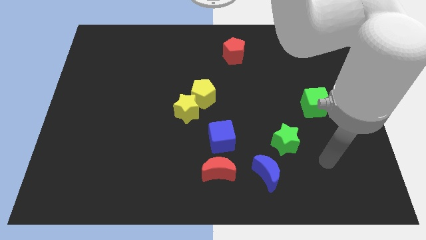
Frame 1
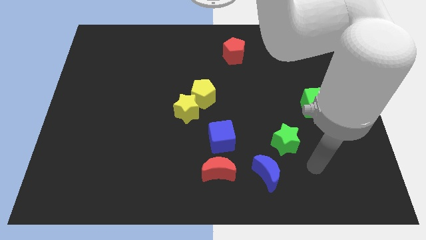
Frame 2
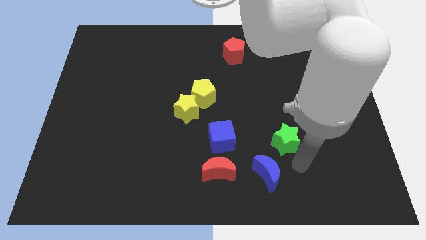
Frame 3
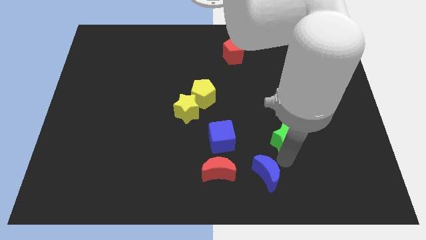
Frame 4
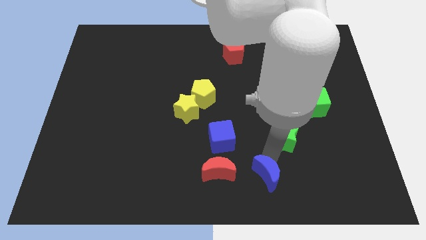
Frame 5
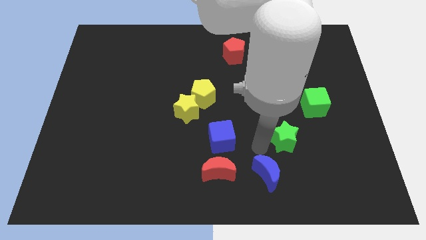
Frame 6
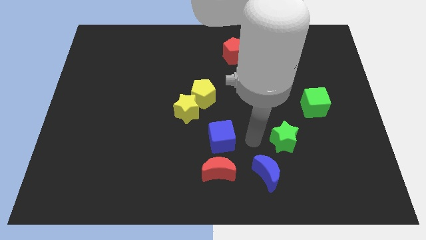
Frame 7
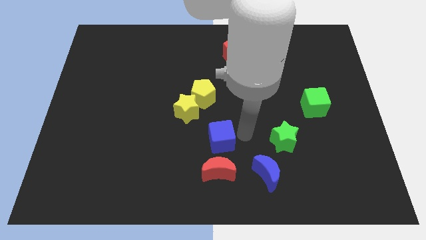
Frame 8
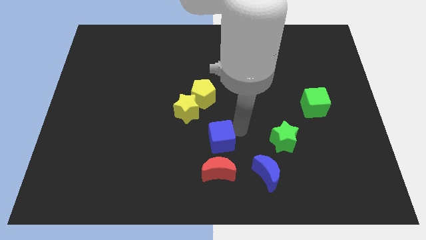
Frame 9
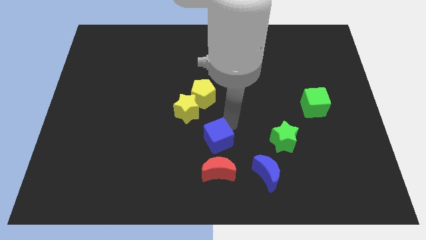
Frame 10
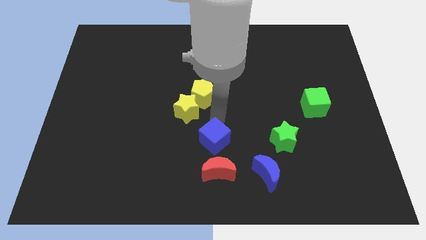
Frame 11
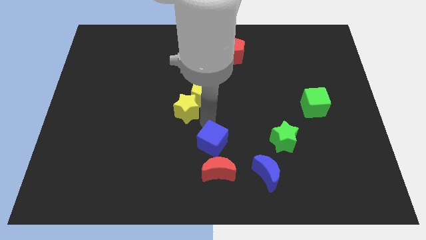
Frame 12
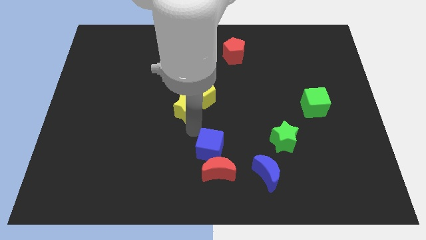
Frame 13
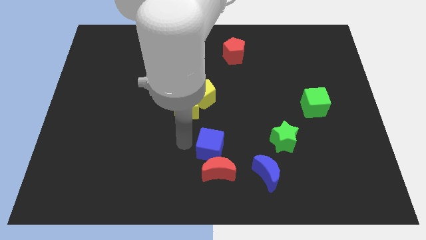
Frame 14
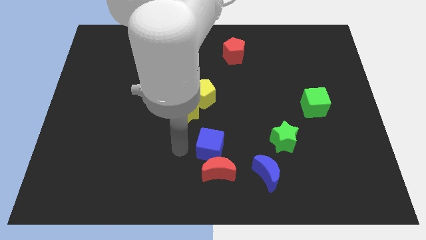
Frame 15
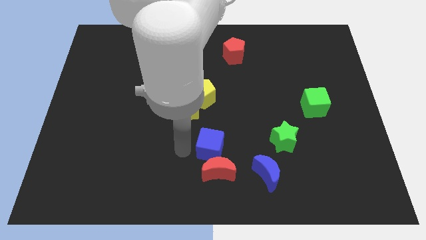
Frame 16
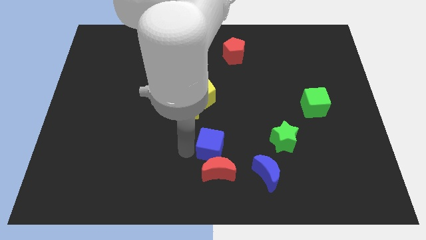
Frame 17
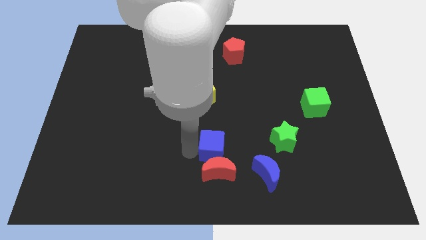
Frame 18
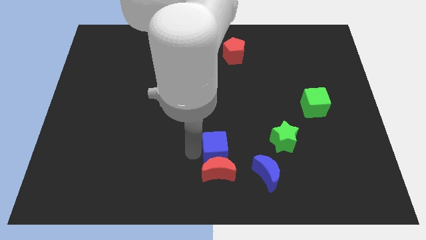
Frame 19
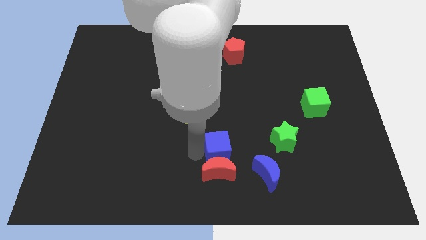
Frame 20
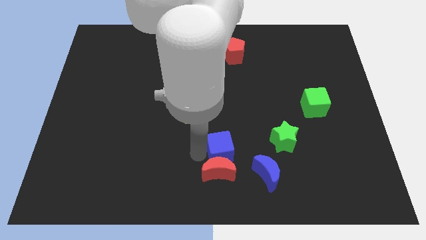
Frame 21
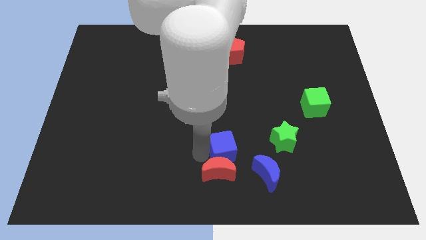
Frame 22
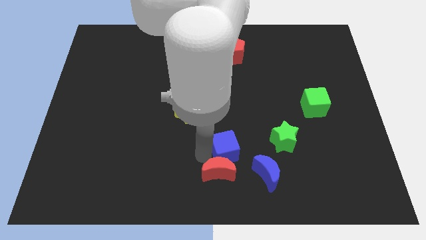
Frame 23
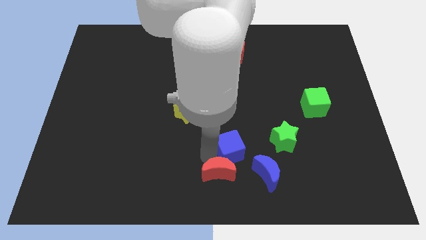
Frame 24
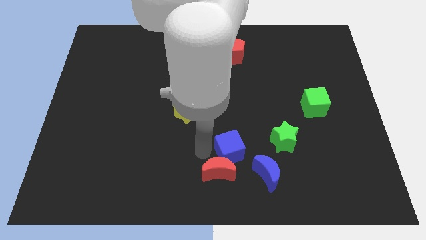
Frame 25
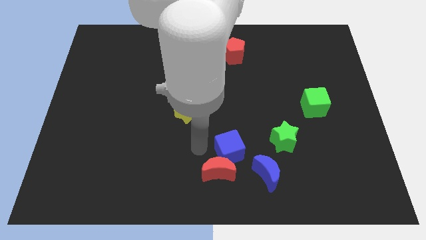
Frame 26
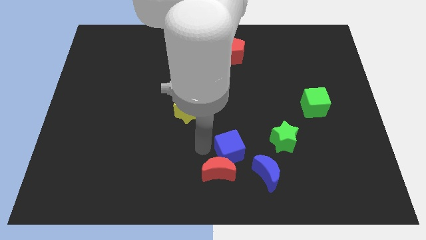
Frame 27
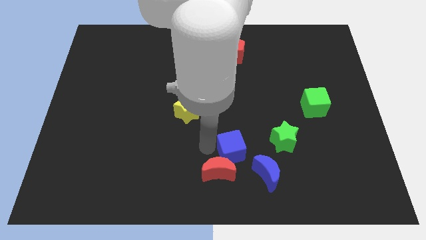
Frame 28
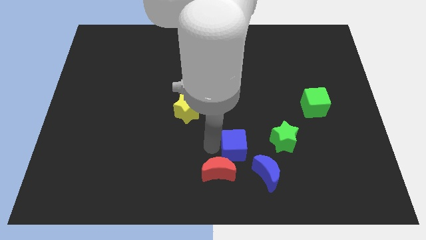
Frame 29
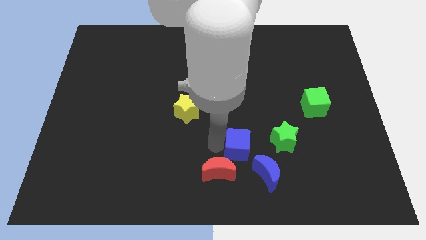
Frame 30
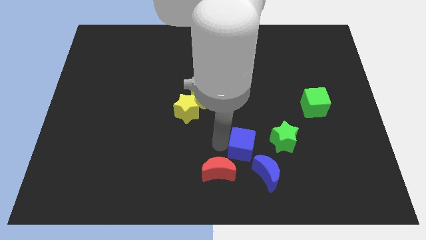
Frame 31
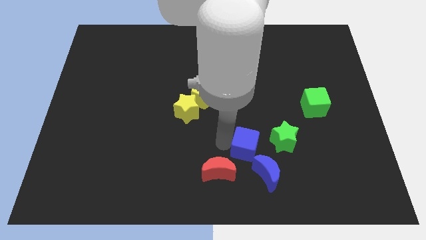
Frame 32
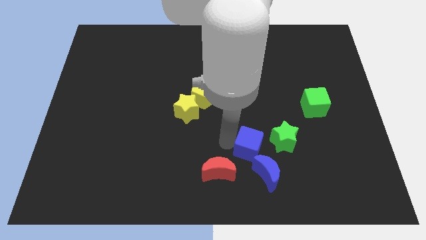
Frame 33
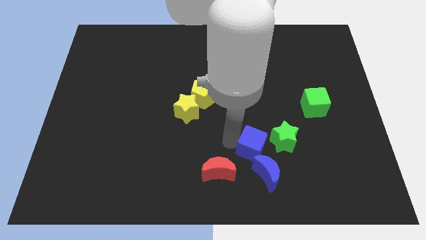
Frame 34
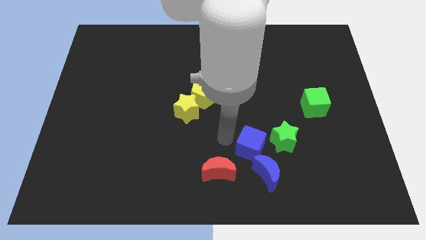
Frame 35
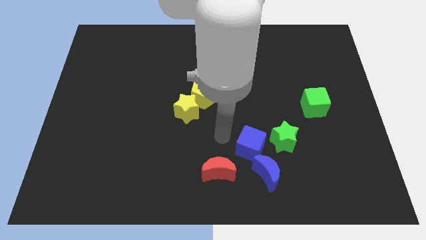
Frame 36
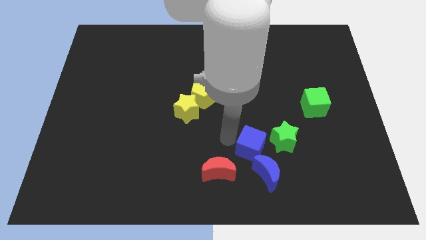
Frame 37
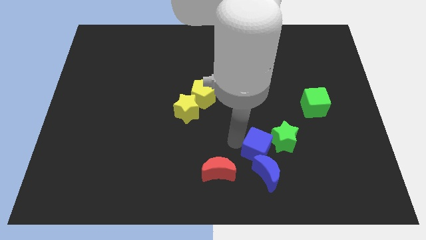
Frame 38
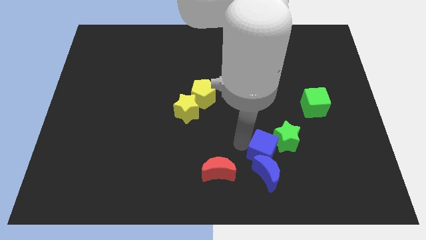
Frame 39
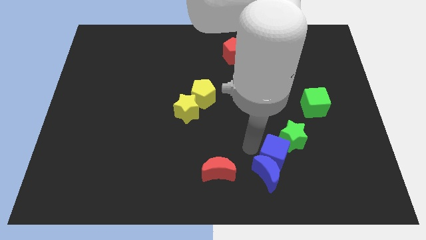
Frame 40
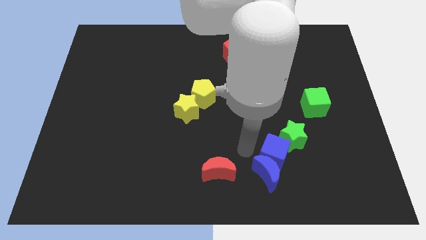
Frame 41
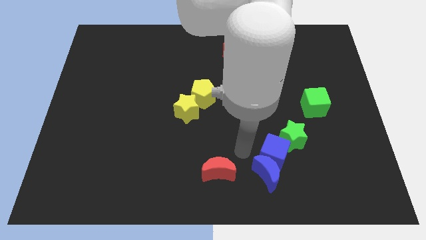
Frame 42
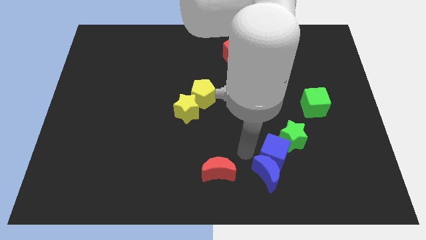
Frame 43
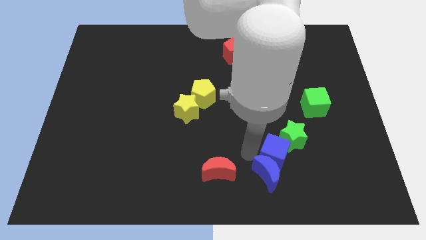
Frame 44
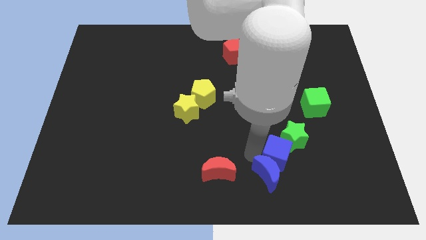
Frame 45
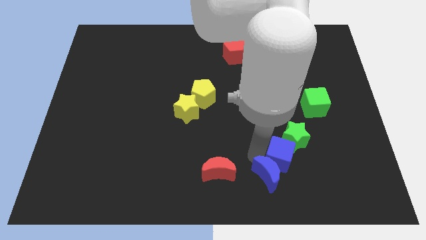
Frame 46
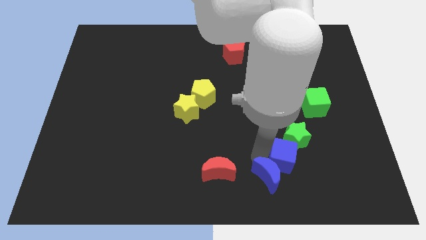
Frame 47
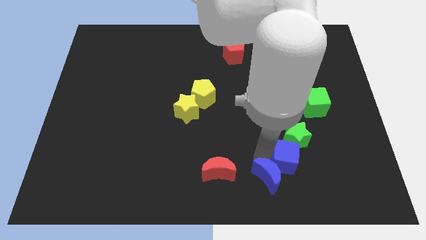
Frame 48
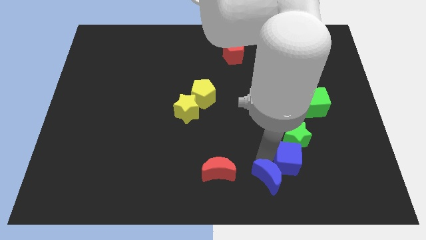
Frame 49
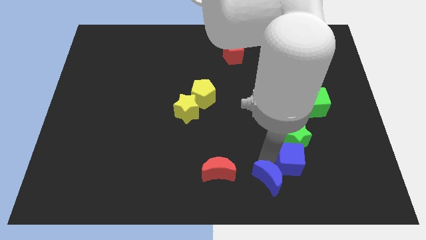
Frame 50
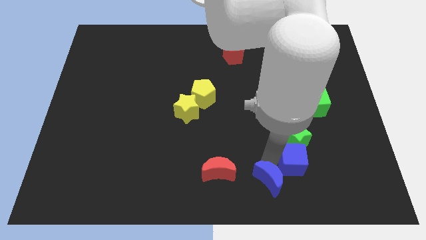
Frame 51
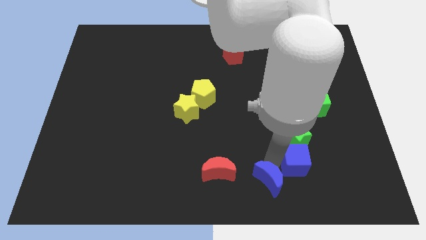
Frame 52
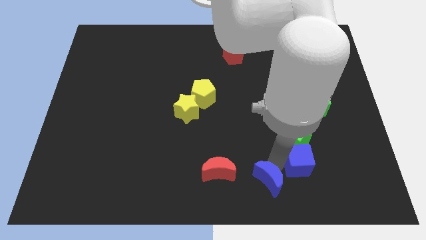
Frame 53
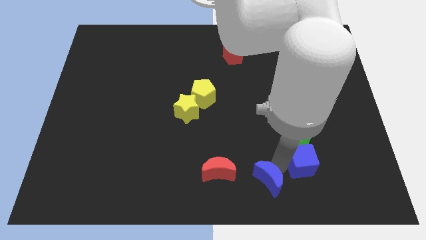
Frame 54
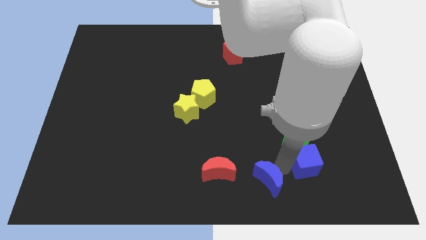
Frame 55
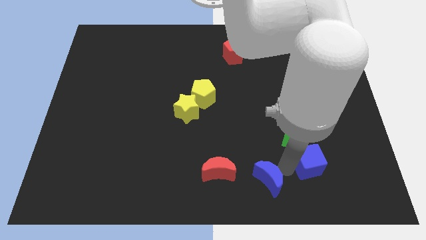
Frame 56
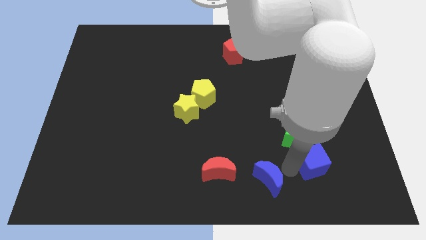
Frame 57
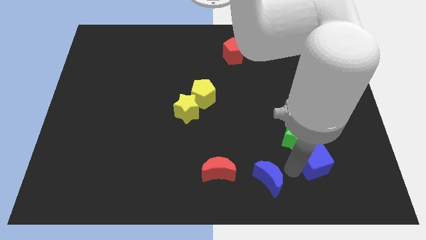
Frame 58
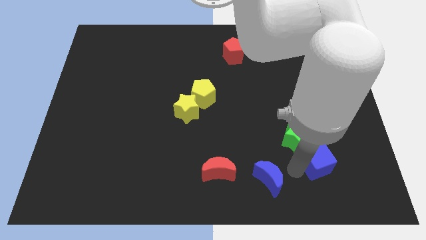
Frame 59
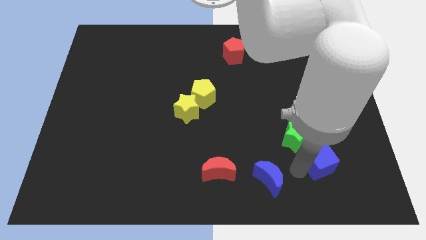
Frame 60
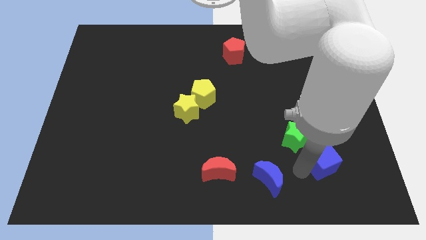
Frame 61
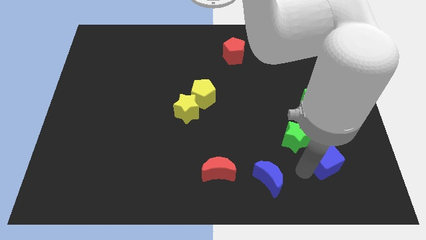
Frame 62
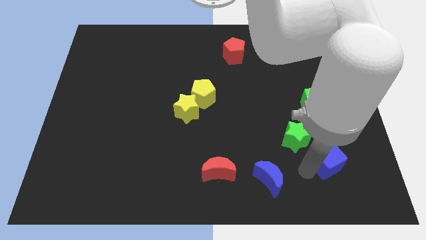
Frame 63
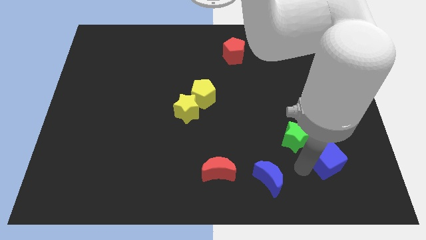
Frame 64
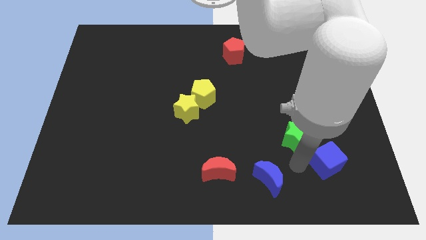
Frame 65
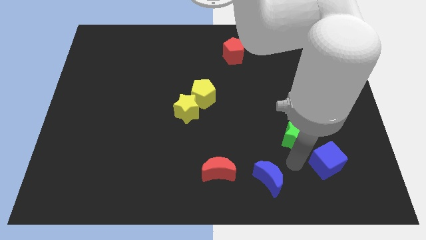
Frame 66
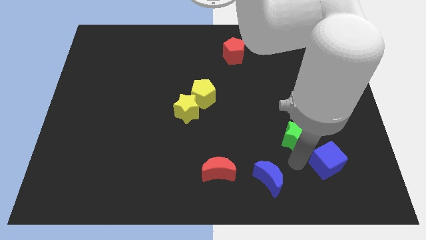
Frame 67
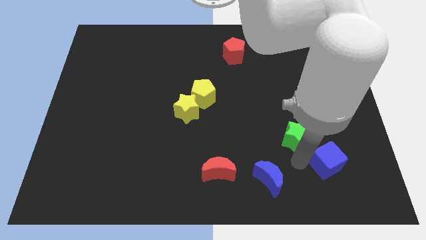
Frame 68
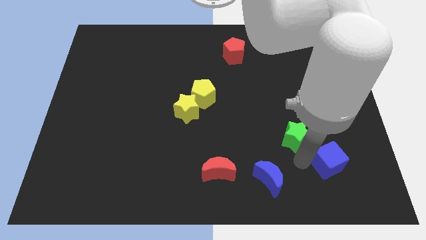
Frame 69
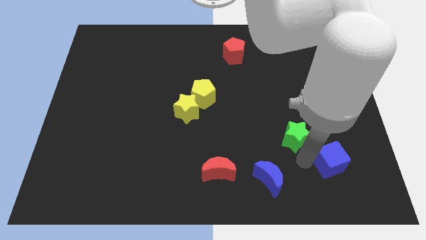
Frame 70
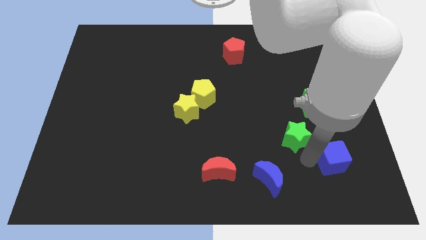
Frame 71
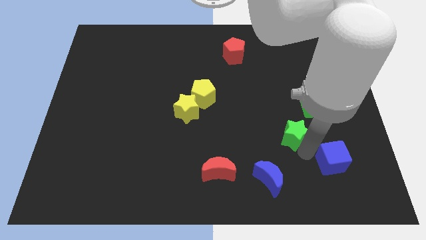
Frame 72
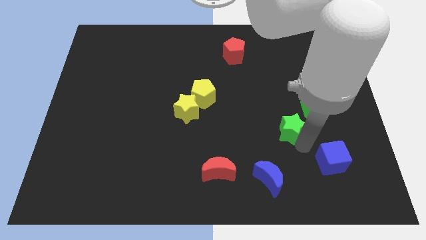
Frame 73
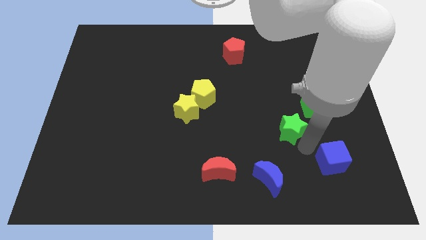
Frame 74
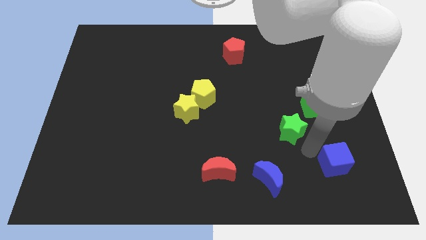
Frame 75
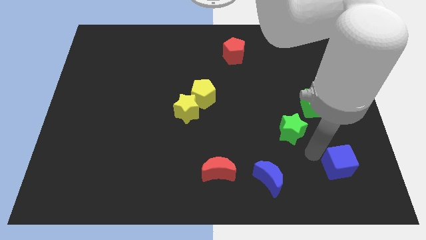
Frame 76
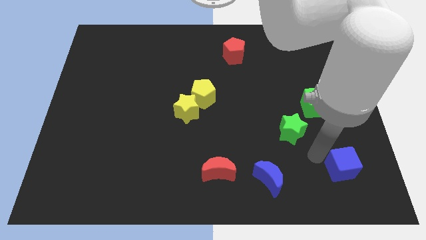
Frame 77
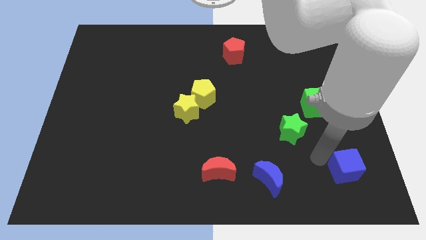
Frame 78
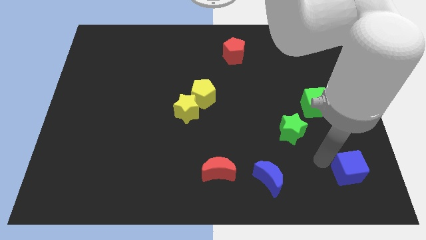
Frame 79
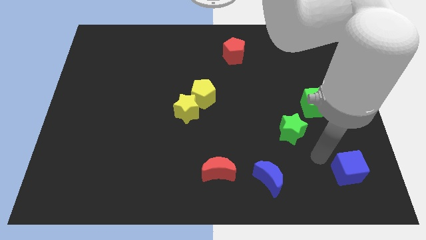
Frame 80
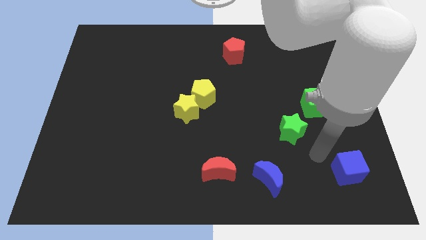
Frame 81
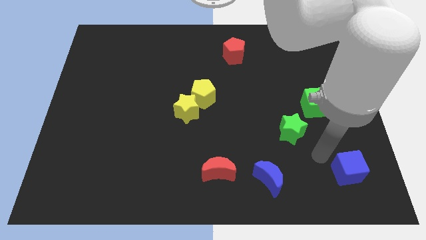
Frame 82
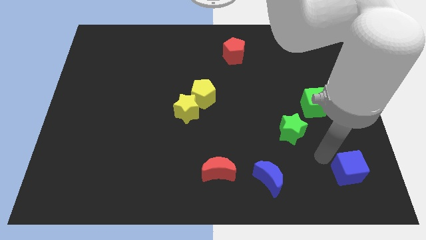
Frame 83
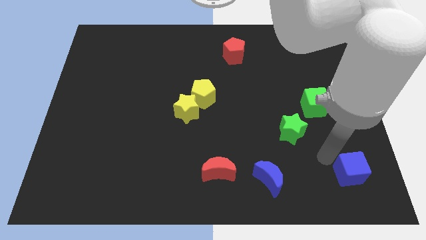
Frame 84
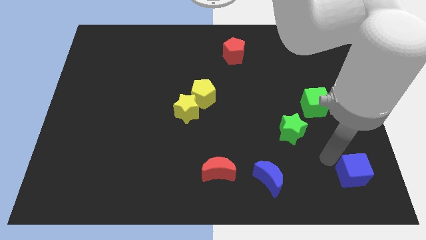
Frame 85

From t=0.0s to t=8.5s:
push the blue cube to the lower right corner
